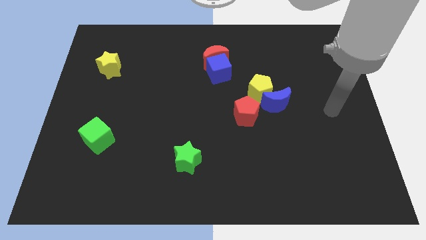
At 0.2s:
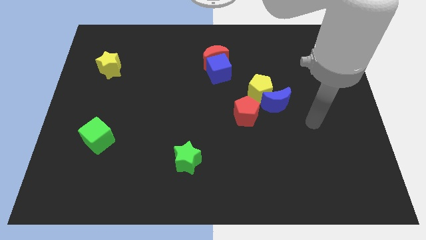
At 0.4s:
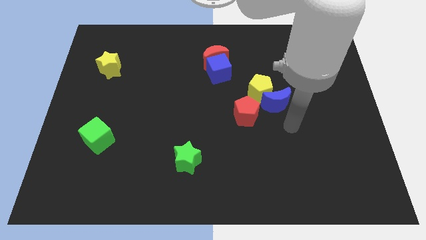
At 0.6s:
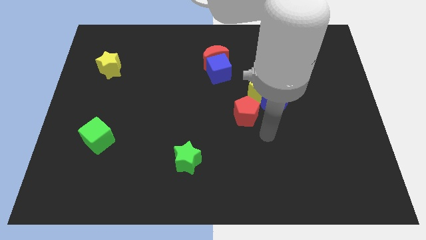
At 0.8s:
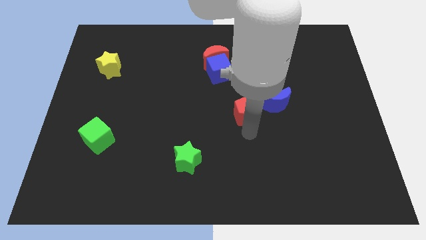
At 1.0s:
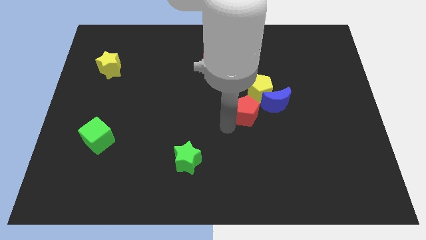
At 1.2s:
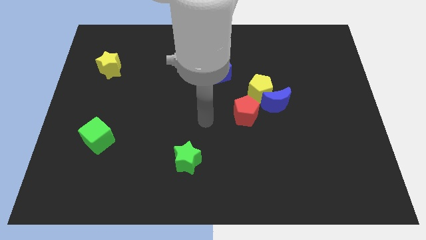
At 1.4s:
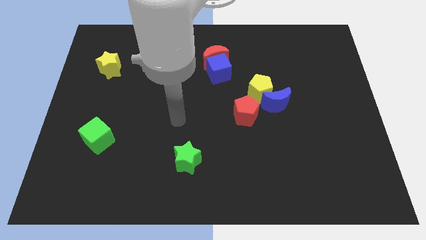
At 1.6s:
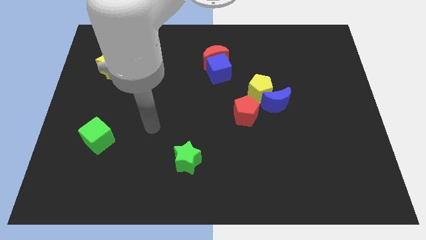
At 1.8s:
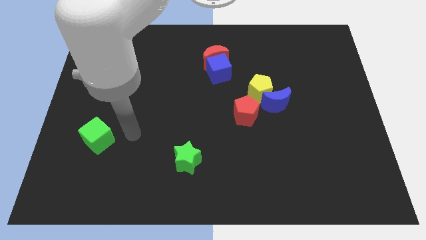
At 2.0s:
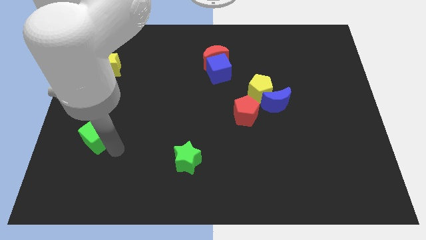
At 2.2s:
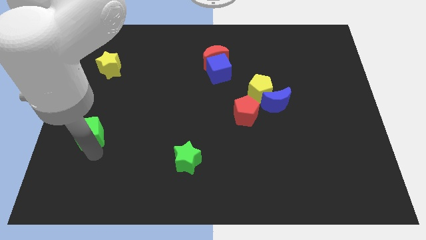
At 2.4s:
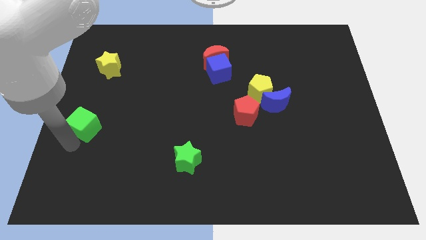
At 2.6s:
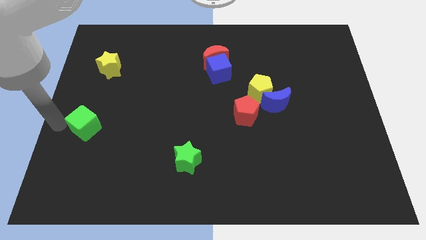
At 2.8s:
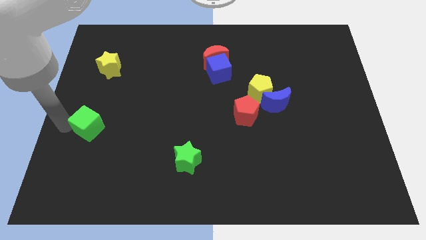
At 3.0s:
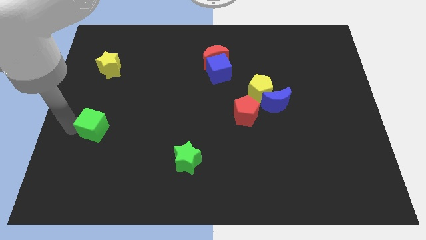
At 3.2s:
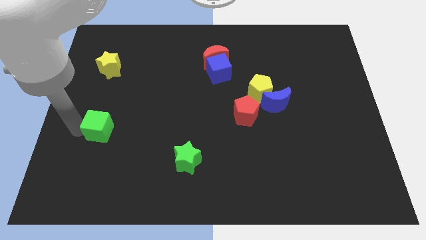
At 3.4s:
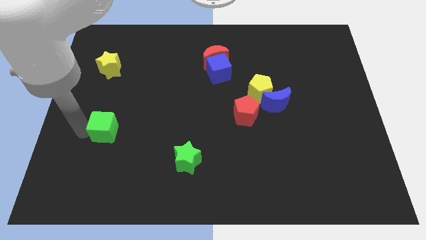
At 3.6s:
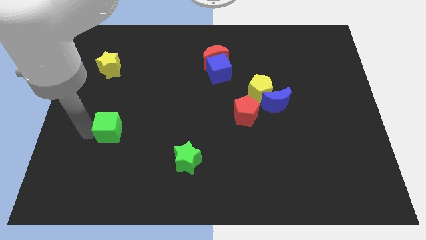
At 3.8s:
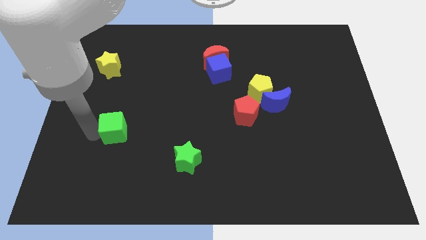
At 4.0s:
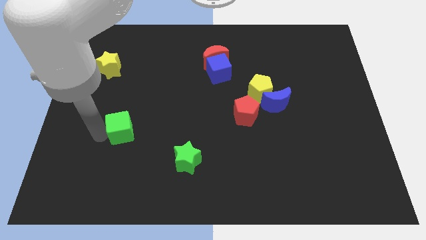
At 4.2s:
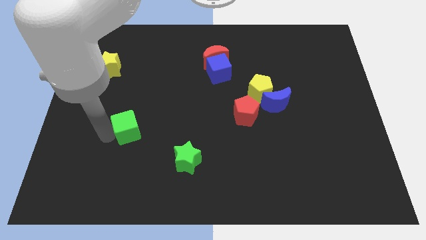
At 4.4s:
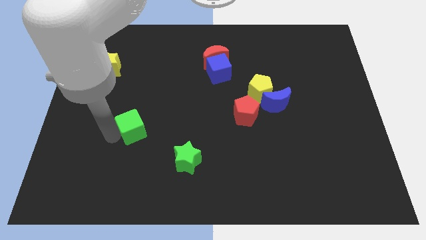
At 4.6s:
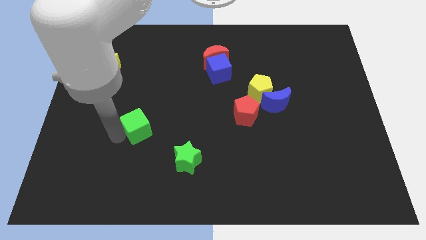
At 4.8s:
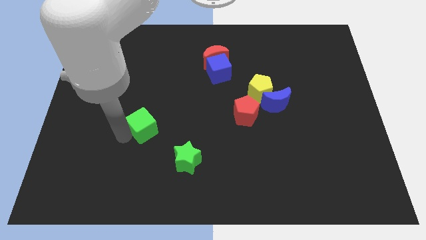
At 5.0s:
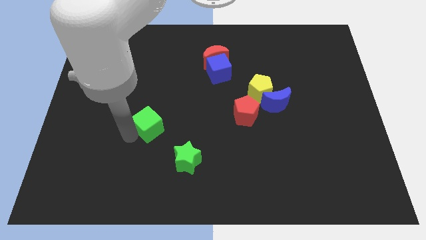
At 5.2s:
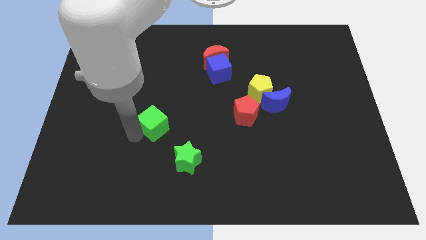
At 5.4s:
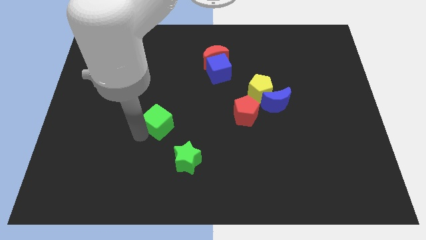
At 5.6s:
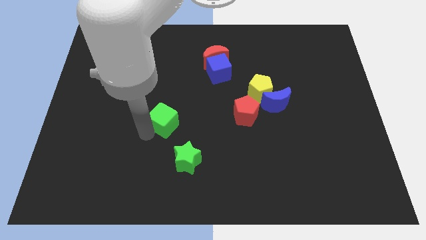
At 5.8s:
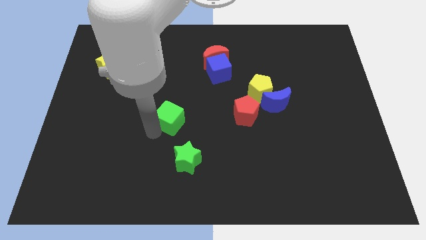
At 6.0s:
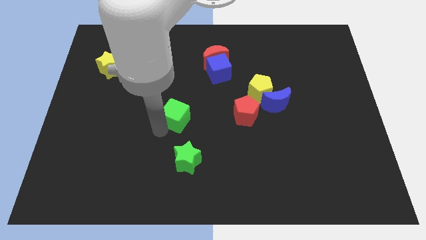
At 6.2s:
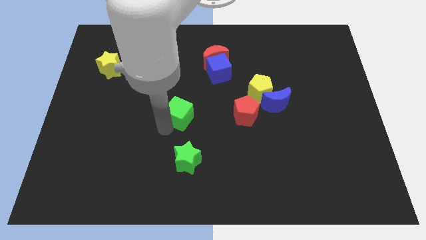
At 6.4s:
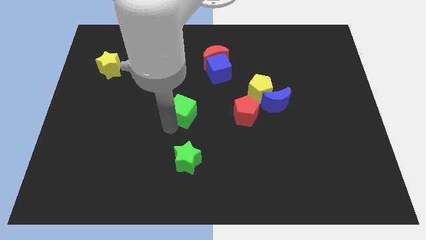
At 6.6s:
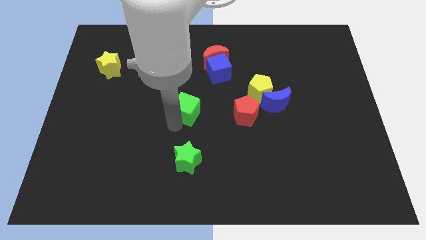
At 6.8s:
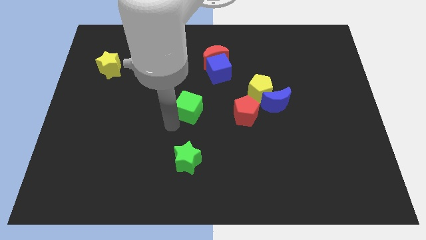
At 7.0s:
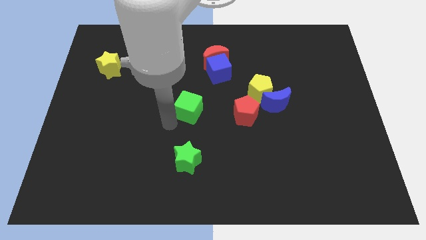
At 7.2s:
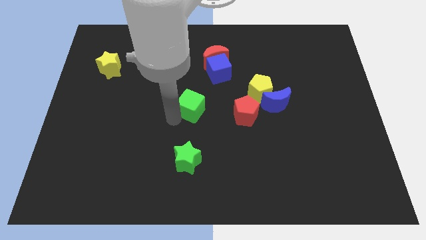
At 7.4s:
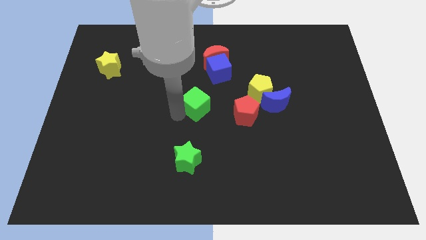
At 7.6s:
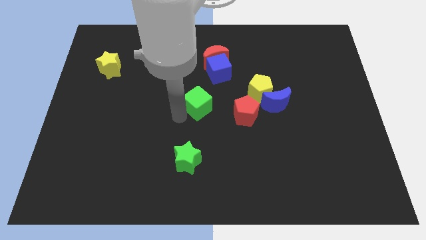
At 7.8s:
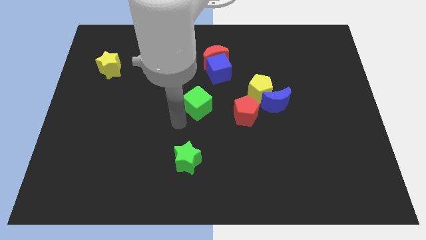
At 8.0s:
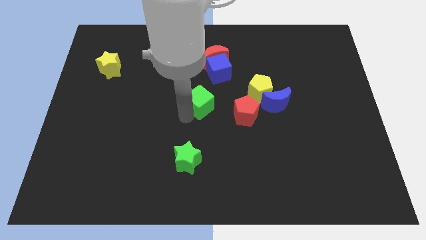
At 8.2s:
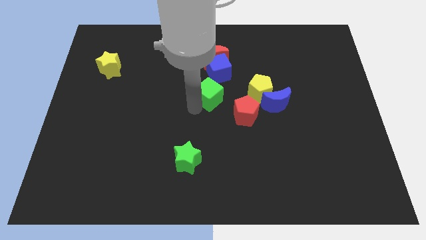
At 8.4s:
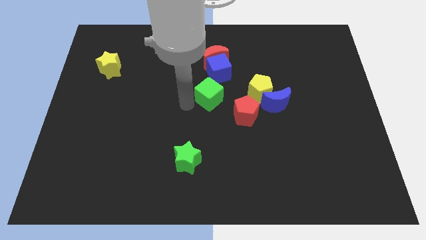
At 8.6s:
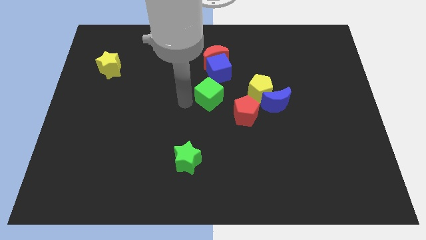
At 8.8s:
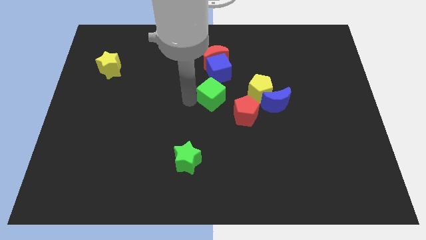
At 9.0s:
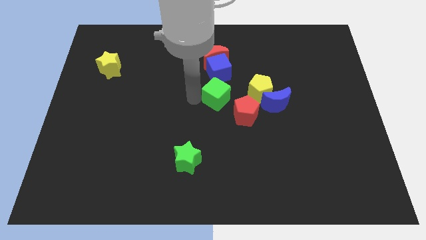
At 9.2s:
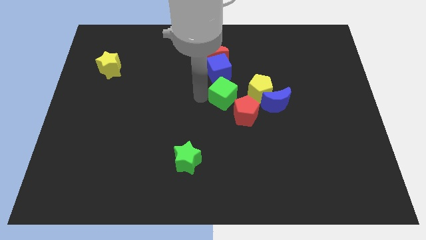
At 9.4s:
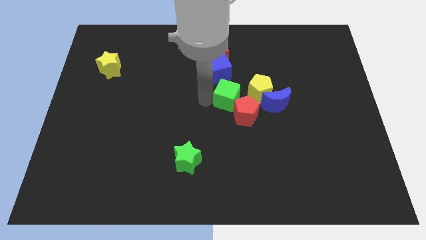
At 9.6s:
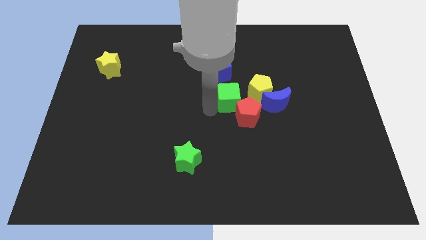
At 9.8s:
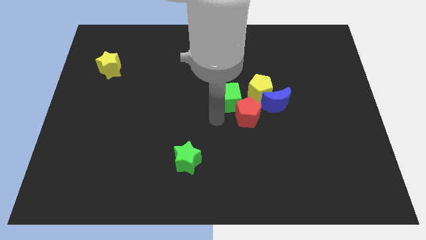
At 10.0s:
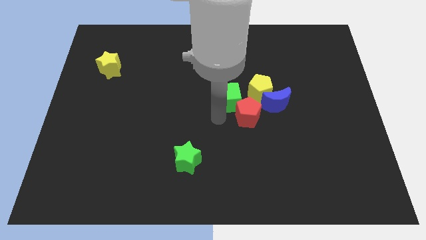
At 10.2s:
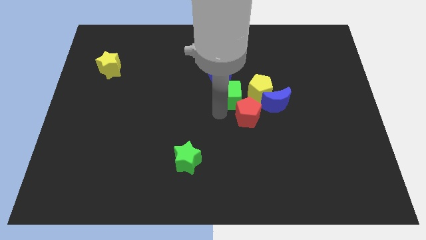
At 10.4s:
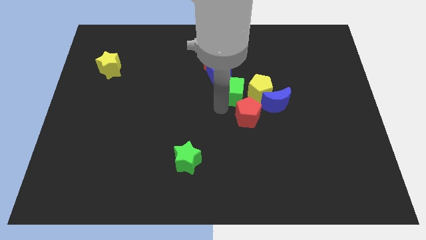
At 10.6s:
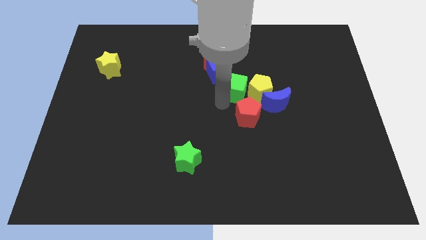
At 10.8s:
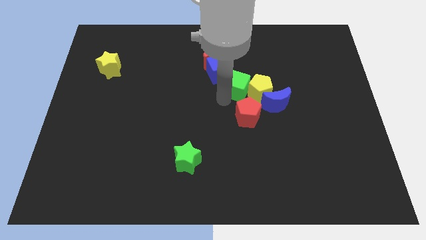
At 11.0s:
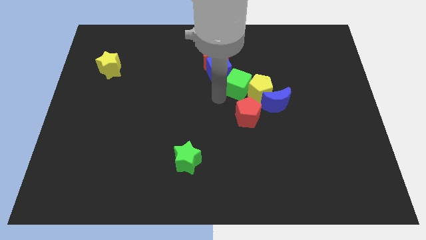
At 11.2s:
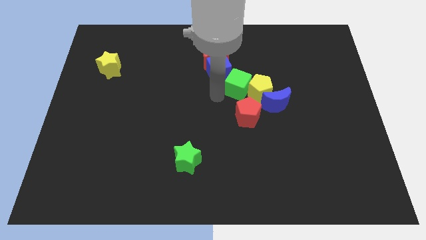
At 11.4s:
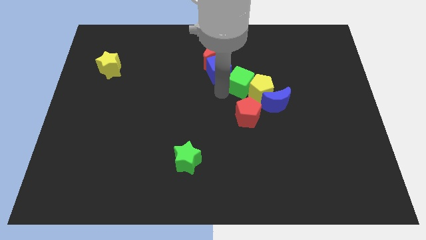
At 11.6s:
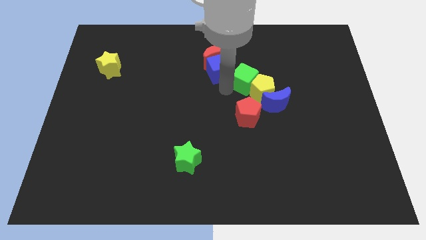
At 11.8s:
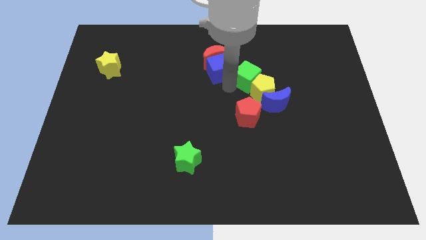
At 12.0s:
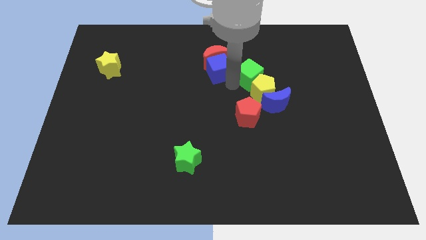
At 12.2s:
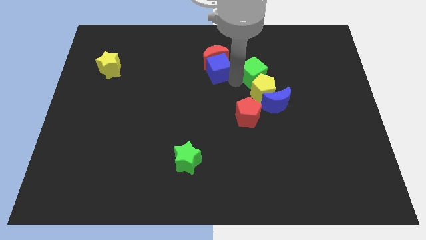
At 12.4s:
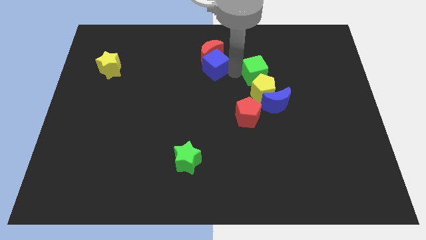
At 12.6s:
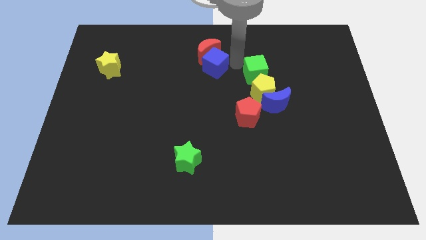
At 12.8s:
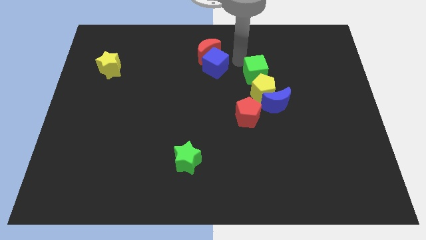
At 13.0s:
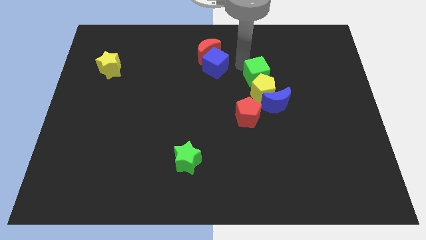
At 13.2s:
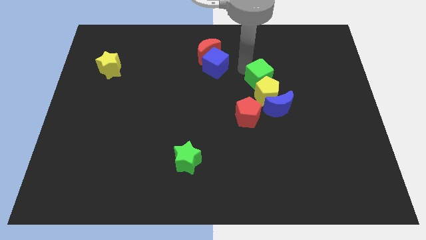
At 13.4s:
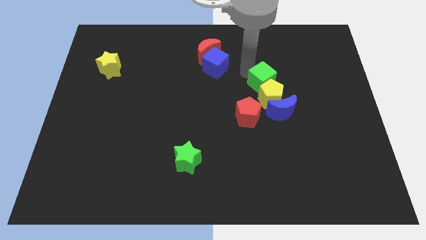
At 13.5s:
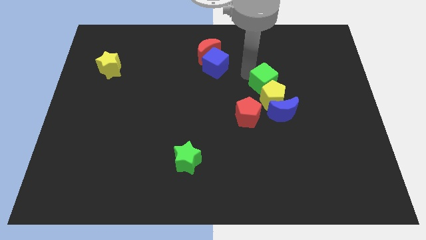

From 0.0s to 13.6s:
push the green cube to the top right of the red pentagon
